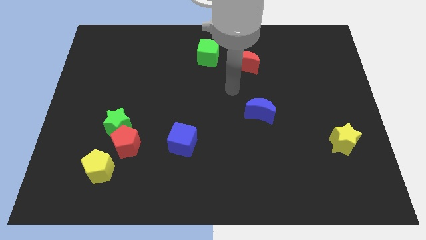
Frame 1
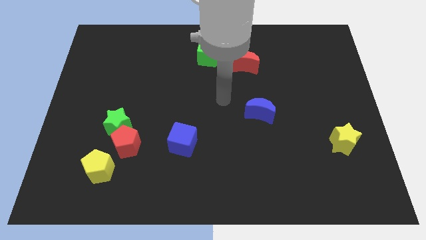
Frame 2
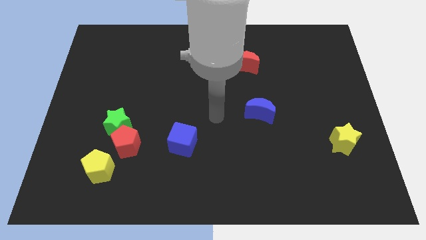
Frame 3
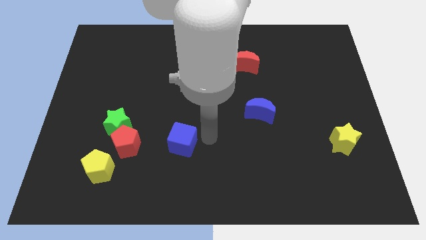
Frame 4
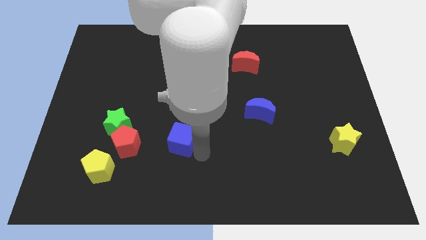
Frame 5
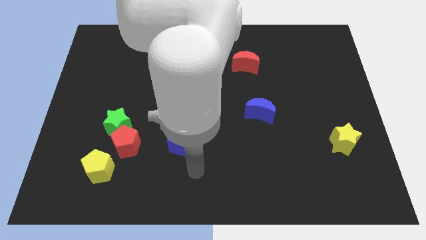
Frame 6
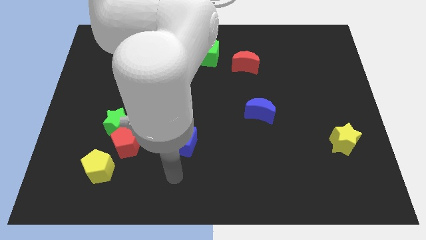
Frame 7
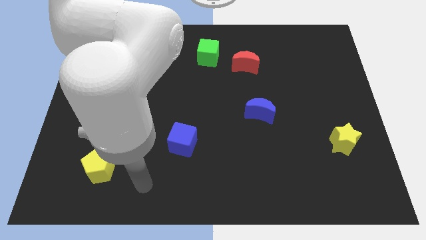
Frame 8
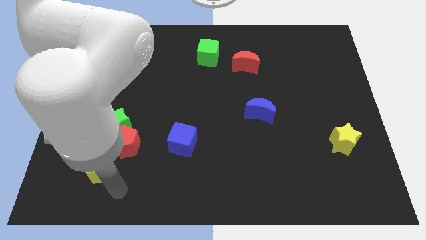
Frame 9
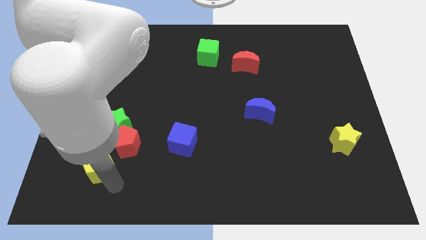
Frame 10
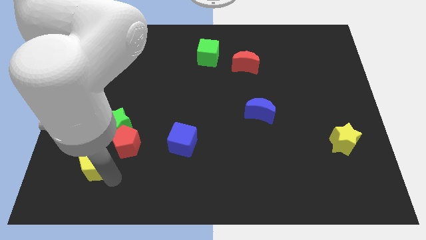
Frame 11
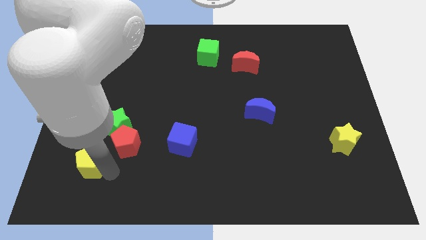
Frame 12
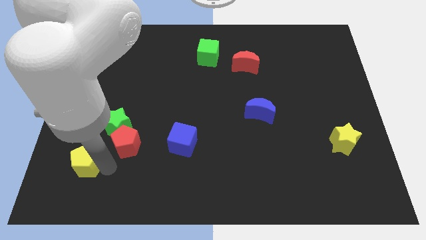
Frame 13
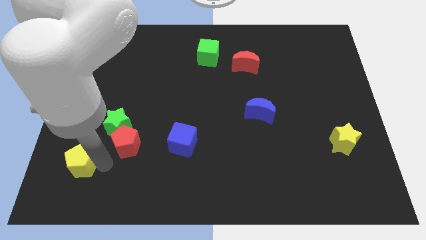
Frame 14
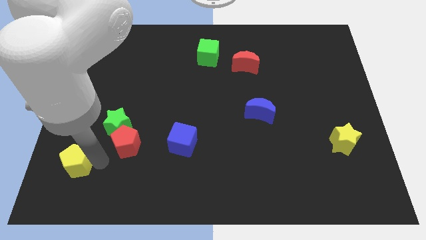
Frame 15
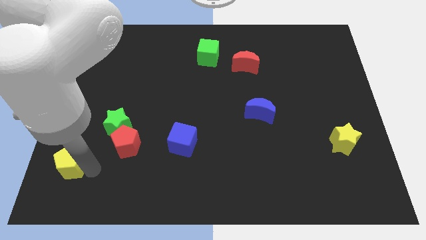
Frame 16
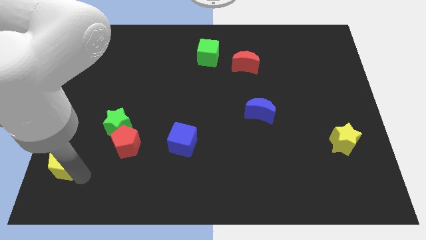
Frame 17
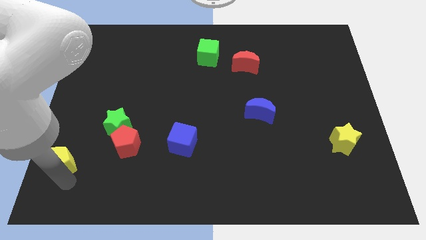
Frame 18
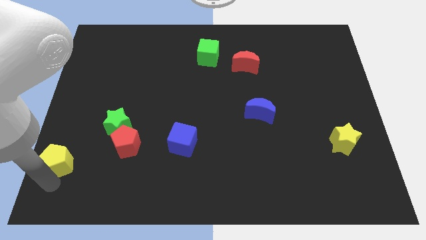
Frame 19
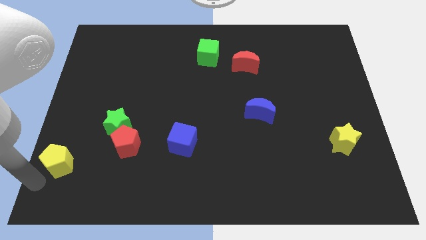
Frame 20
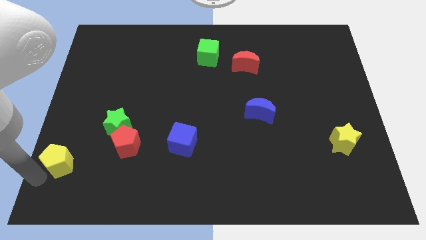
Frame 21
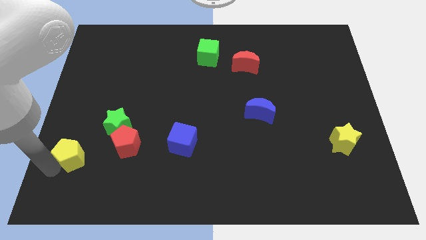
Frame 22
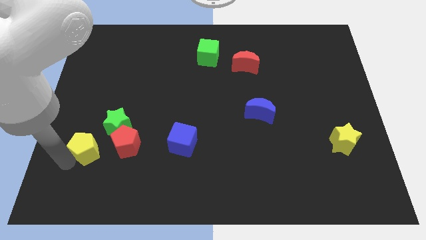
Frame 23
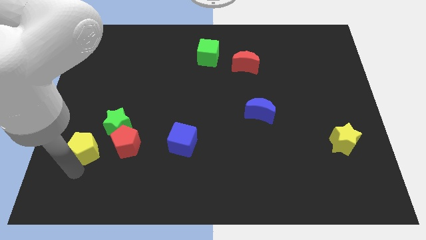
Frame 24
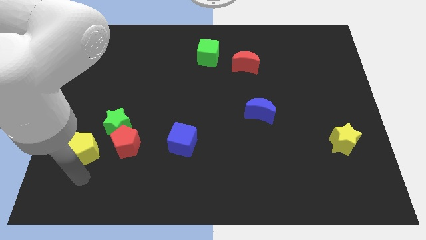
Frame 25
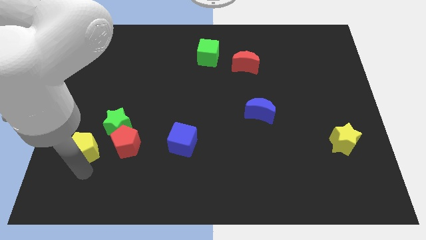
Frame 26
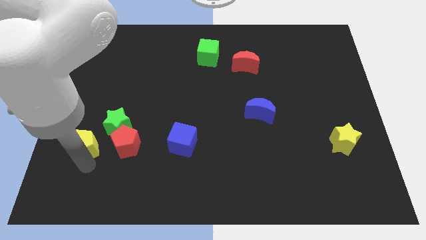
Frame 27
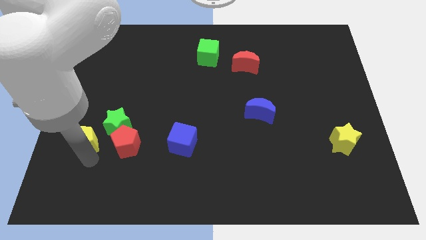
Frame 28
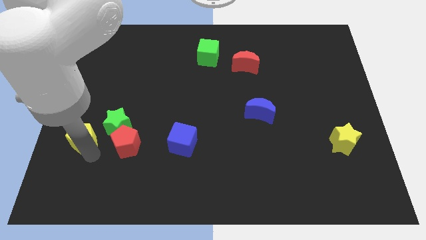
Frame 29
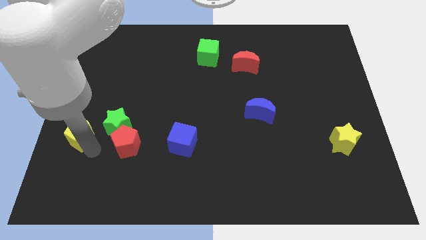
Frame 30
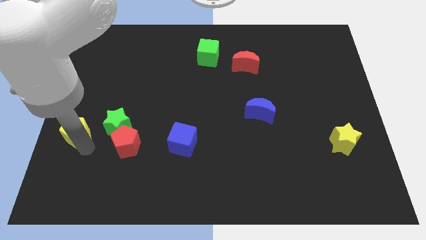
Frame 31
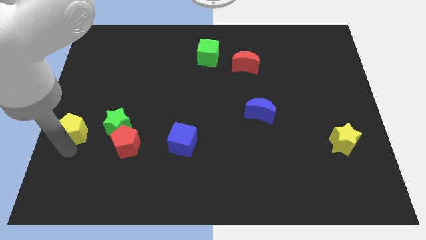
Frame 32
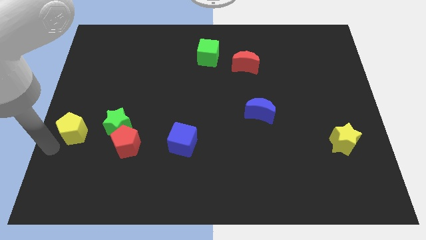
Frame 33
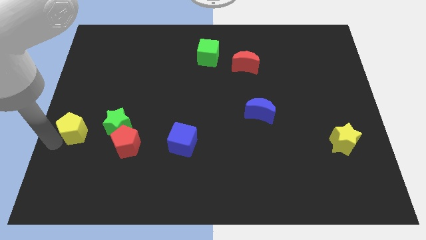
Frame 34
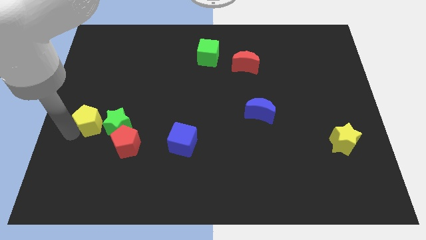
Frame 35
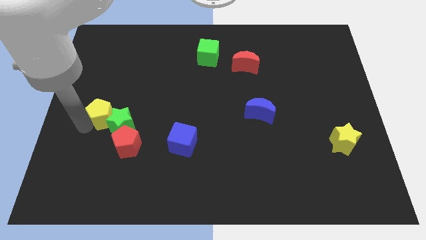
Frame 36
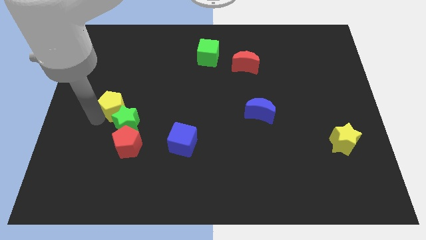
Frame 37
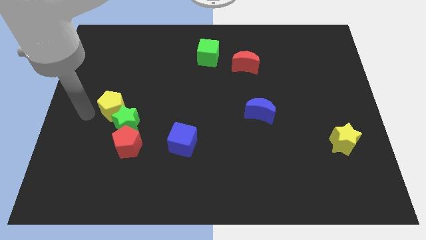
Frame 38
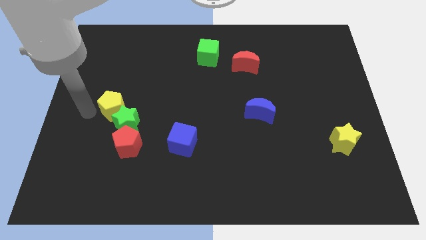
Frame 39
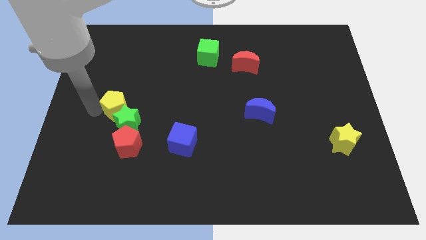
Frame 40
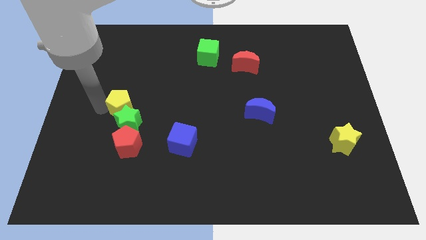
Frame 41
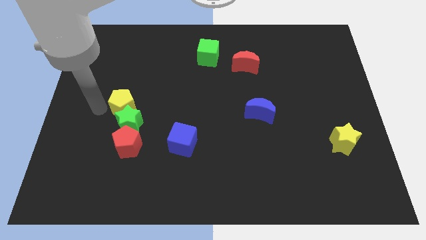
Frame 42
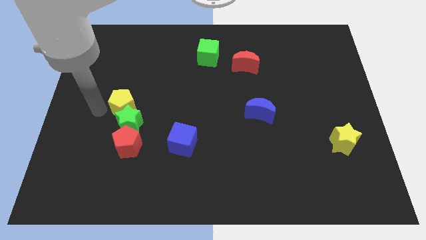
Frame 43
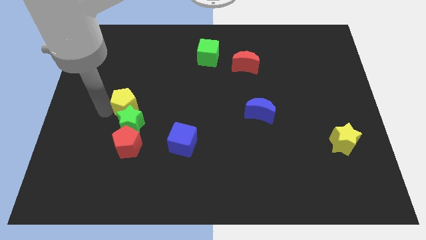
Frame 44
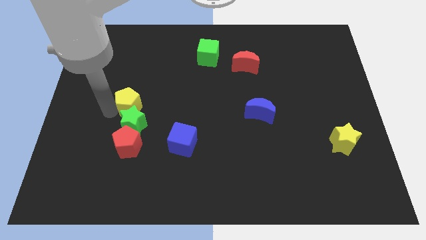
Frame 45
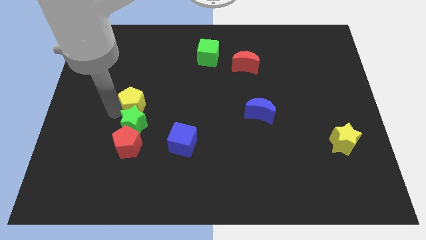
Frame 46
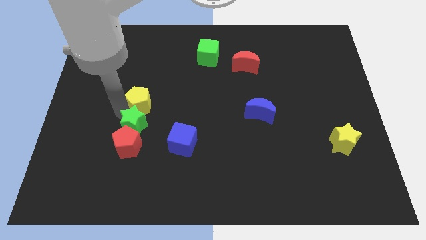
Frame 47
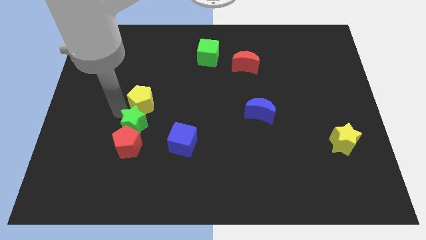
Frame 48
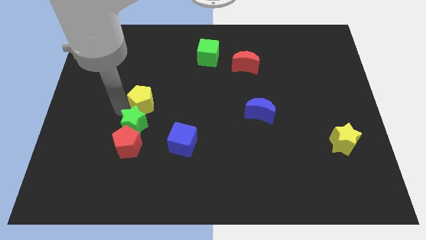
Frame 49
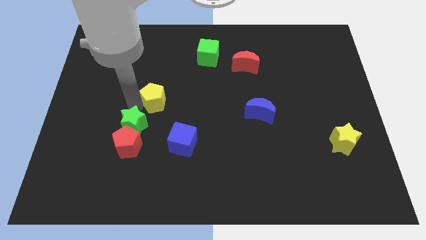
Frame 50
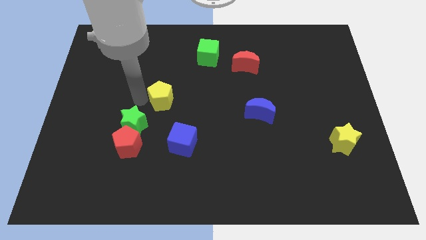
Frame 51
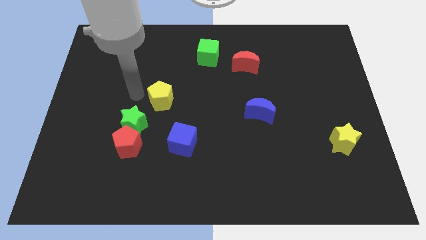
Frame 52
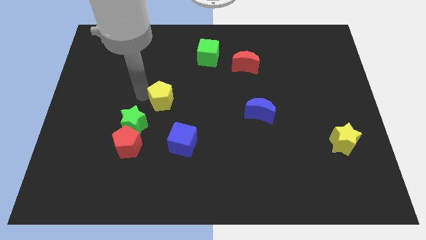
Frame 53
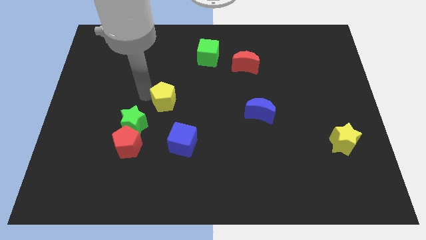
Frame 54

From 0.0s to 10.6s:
put the yellow pentagon to the top of the blue cube

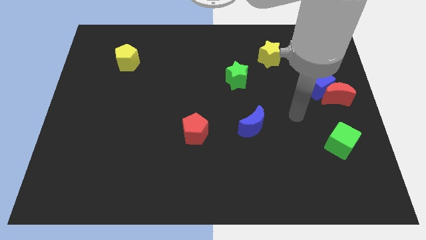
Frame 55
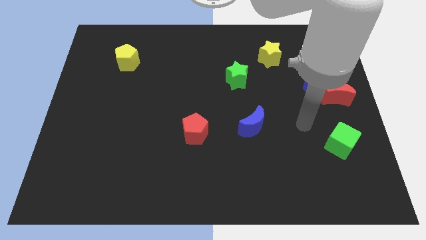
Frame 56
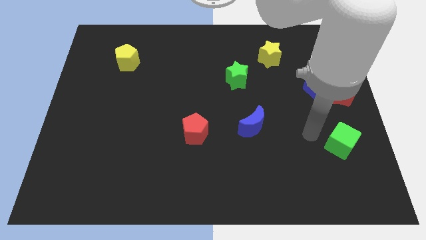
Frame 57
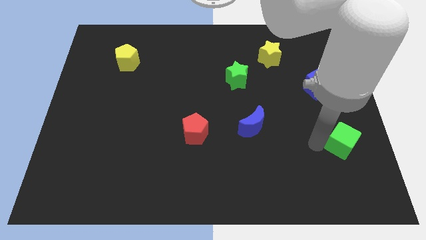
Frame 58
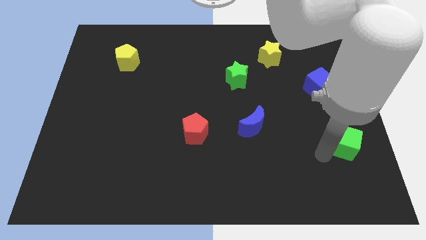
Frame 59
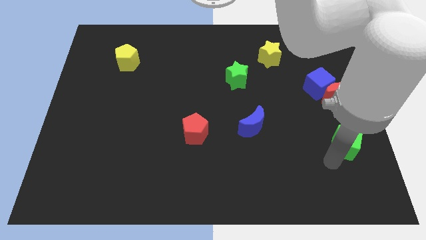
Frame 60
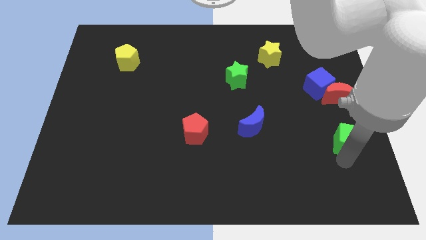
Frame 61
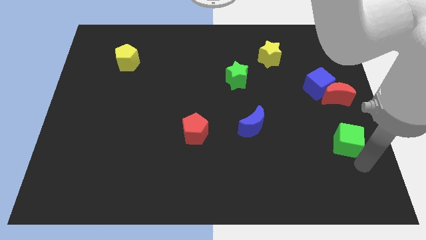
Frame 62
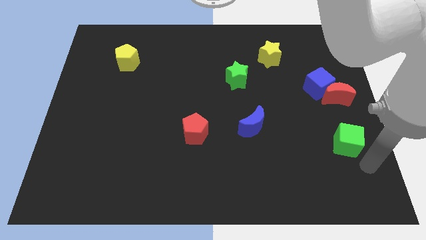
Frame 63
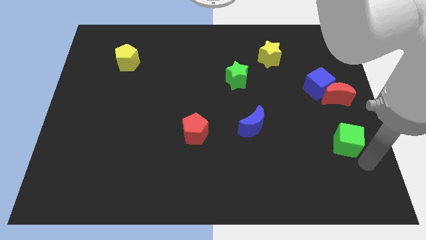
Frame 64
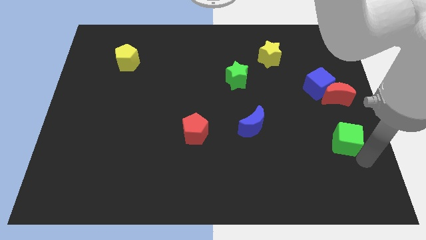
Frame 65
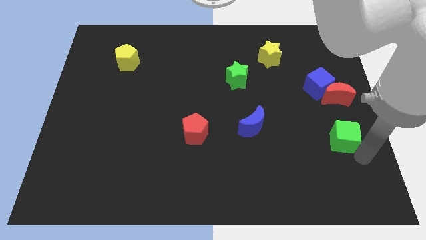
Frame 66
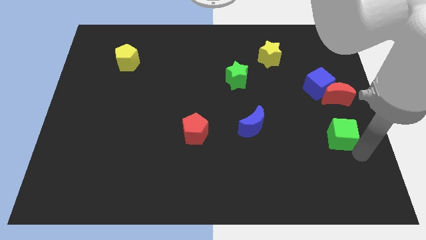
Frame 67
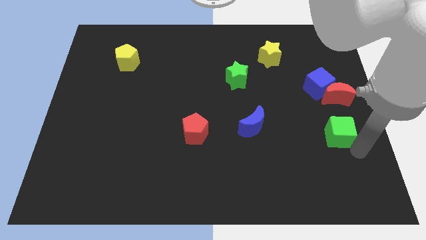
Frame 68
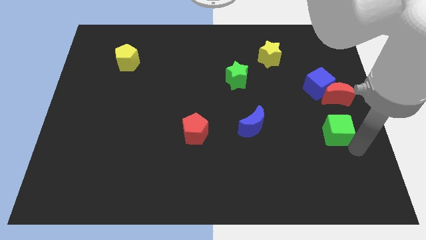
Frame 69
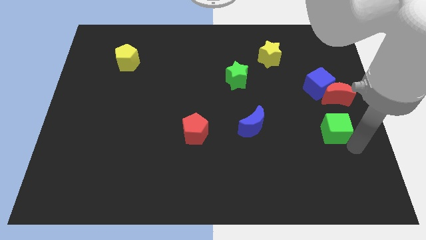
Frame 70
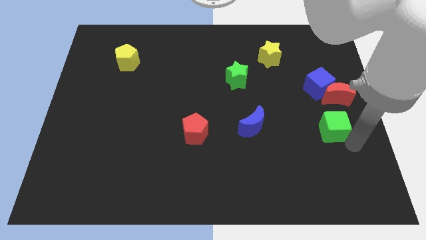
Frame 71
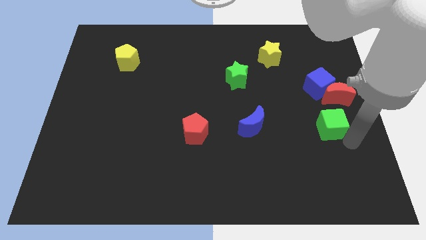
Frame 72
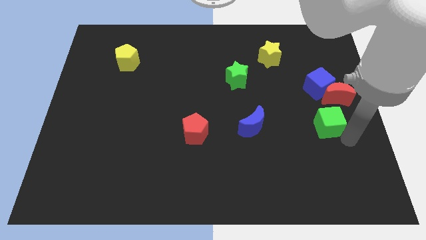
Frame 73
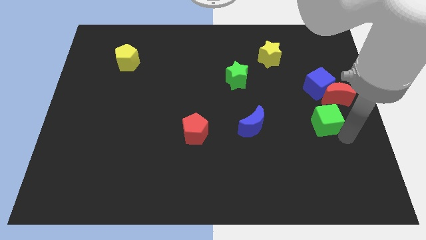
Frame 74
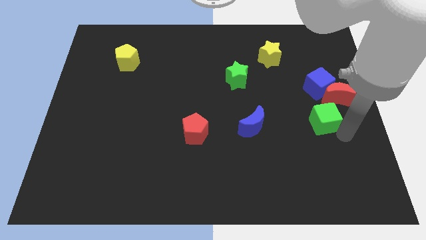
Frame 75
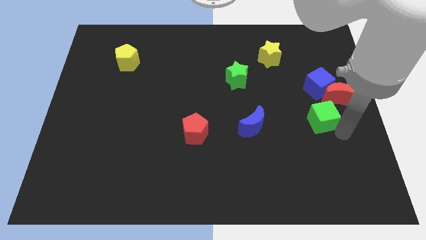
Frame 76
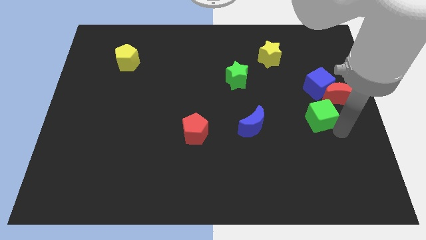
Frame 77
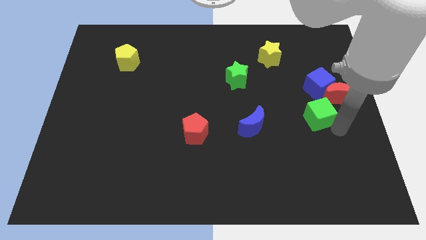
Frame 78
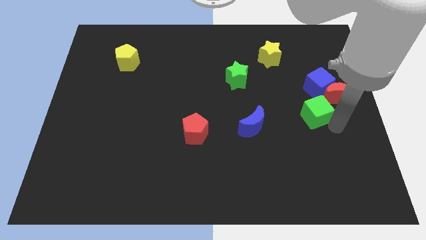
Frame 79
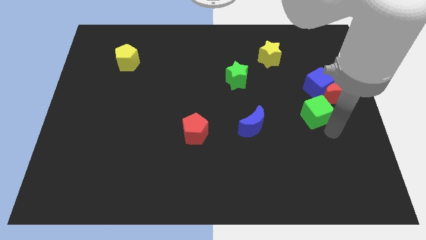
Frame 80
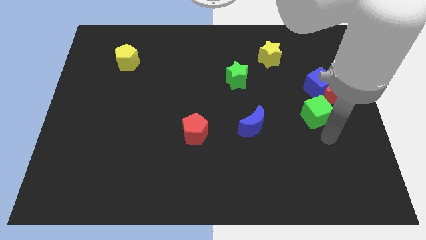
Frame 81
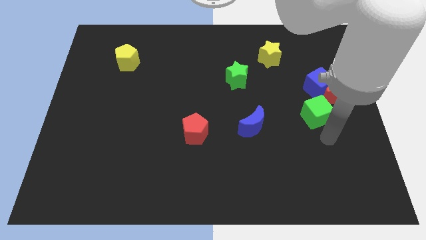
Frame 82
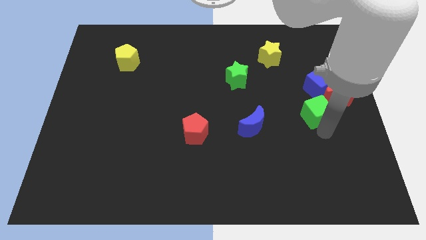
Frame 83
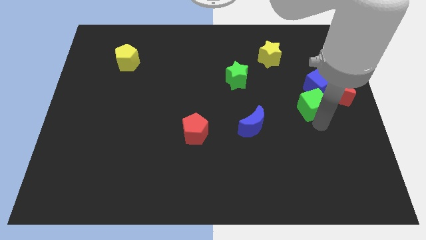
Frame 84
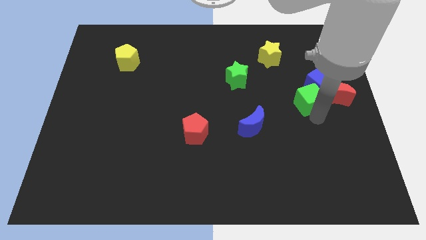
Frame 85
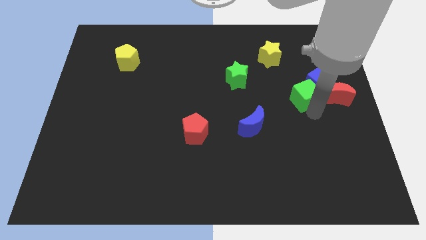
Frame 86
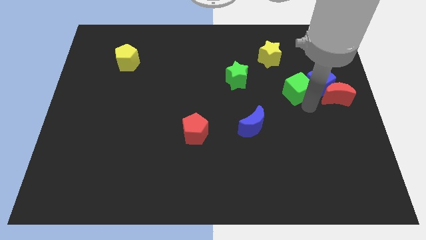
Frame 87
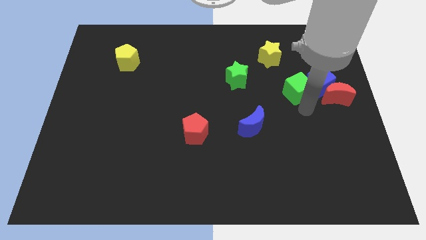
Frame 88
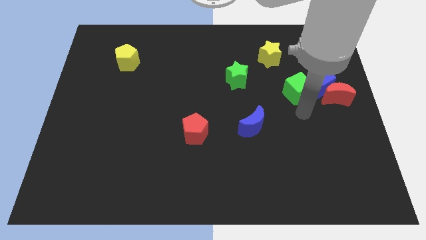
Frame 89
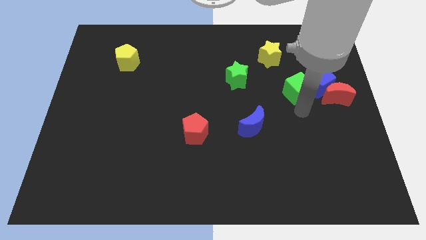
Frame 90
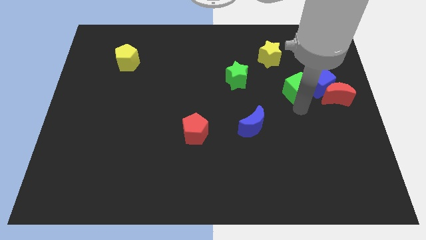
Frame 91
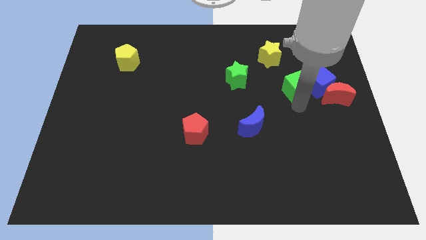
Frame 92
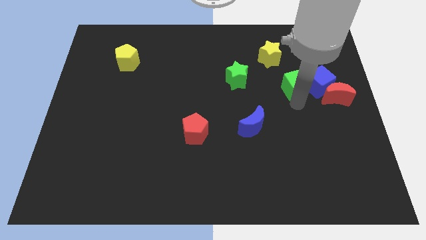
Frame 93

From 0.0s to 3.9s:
put the green cube to the bottom right side of the yellow star
